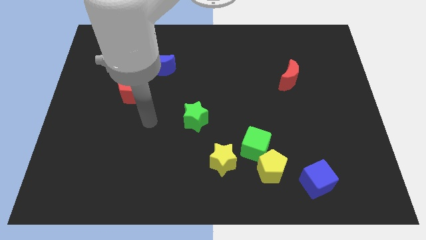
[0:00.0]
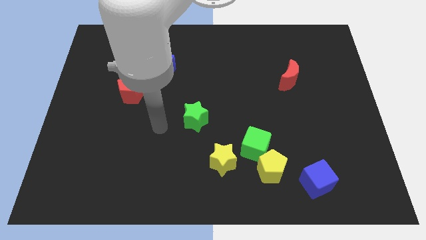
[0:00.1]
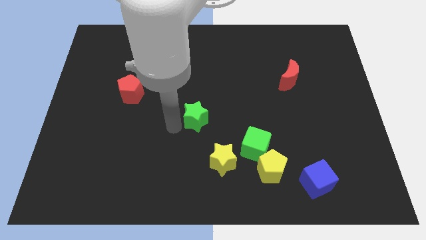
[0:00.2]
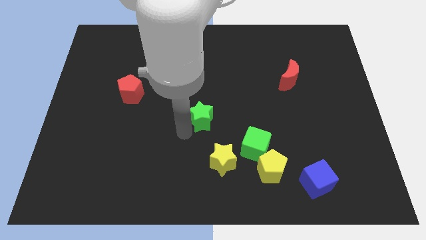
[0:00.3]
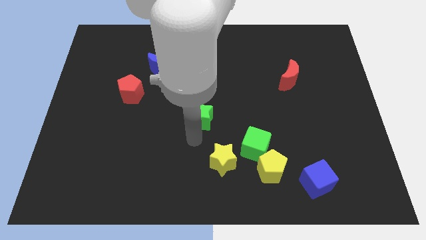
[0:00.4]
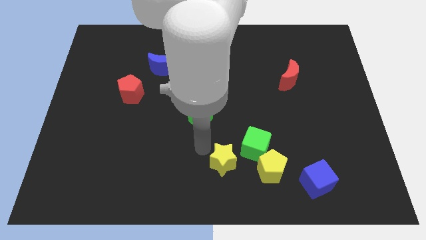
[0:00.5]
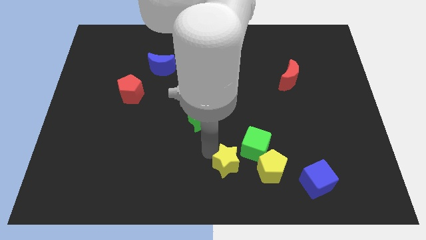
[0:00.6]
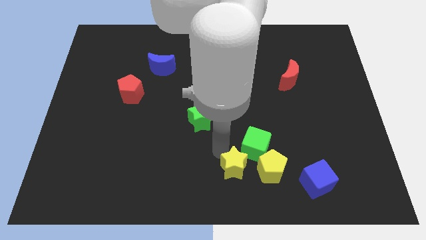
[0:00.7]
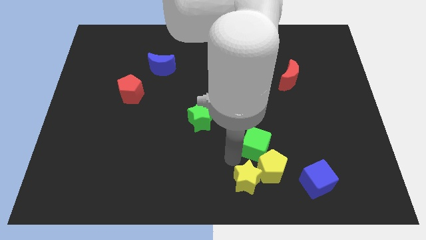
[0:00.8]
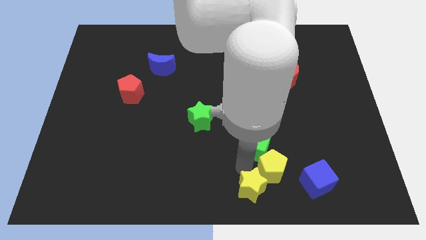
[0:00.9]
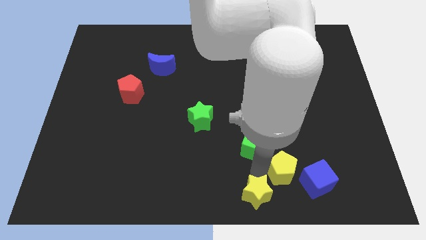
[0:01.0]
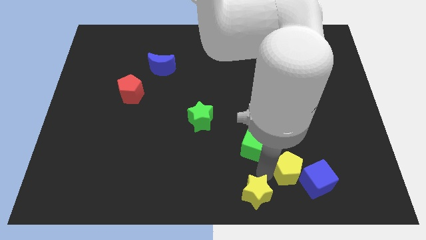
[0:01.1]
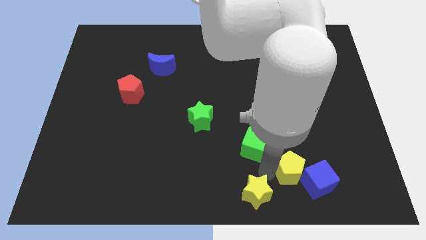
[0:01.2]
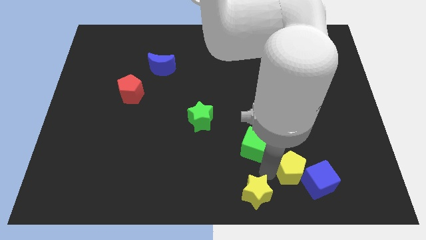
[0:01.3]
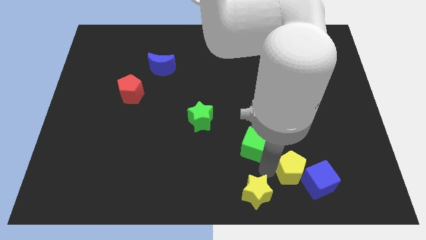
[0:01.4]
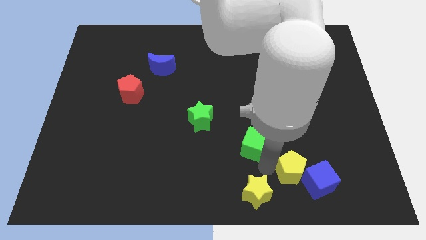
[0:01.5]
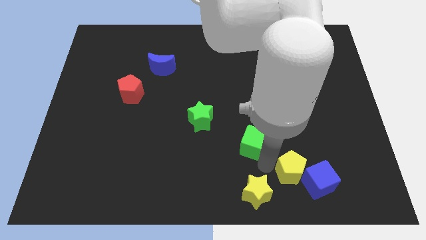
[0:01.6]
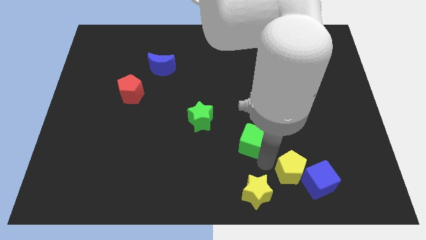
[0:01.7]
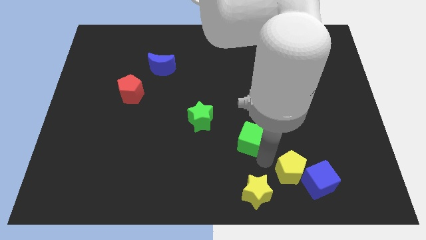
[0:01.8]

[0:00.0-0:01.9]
move the green cube away from the yellow pentagon and yellow star

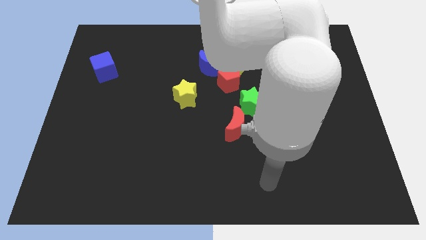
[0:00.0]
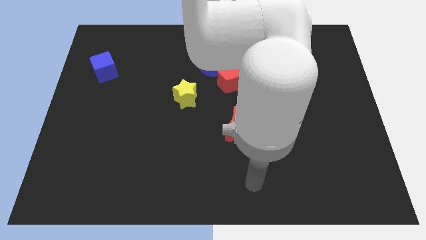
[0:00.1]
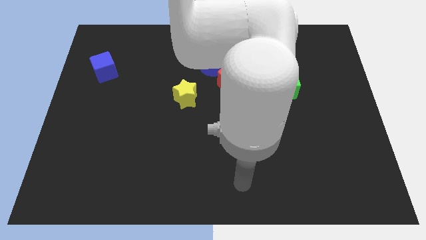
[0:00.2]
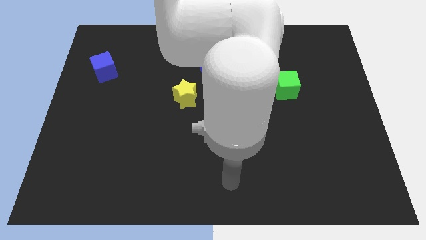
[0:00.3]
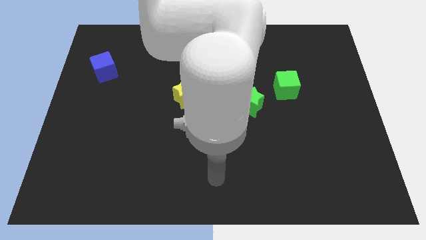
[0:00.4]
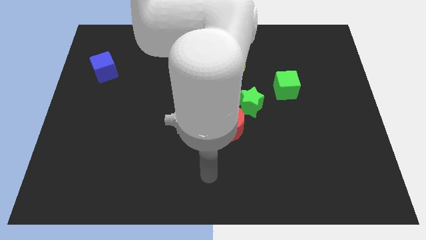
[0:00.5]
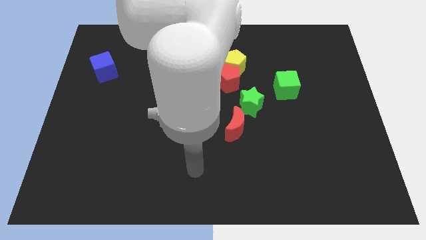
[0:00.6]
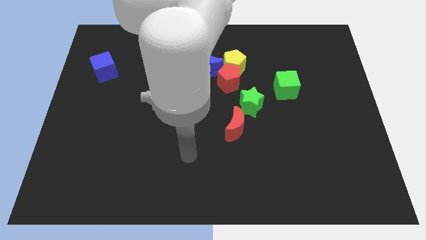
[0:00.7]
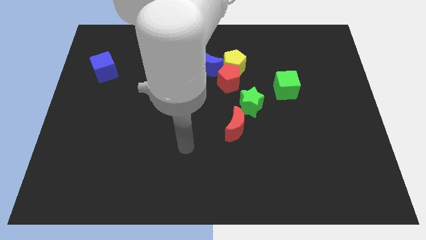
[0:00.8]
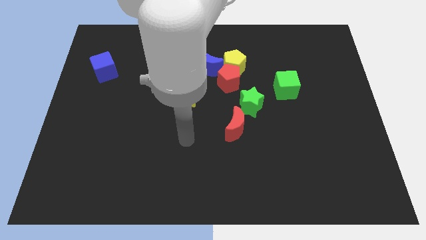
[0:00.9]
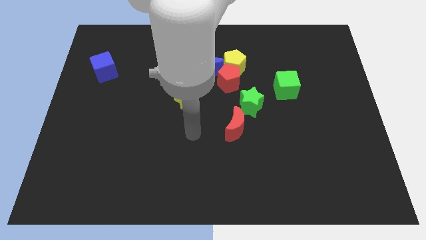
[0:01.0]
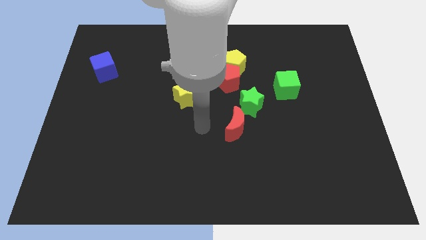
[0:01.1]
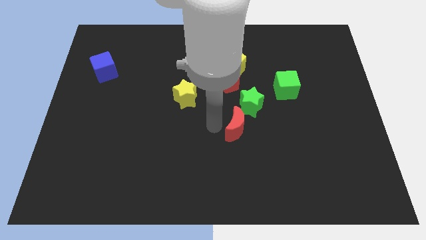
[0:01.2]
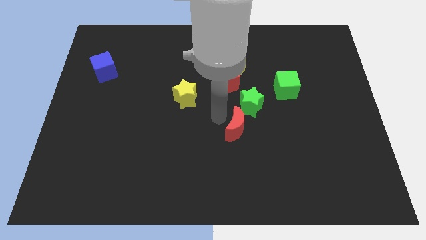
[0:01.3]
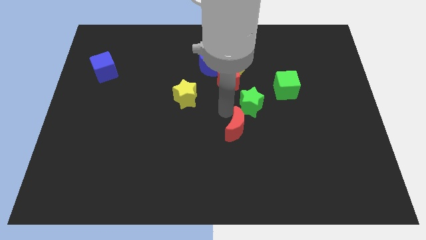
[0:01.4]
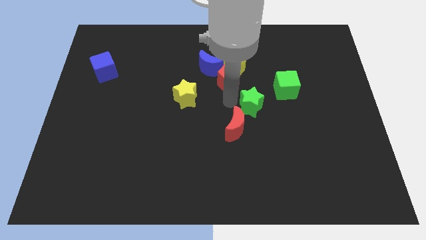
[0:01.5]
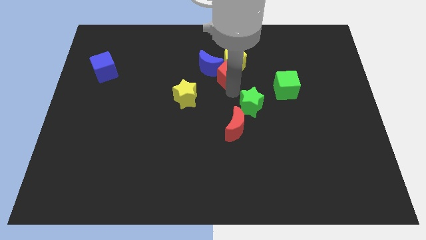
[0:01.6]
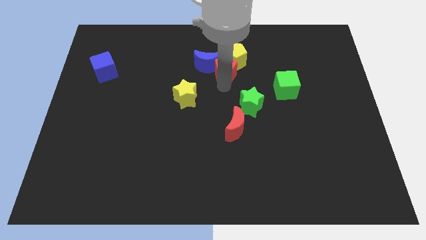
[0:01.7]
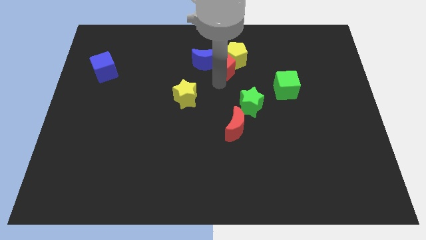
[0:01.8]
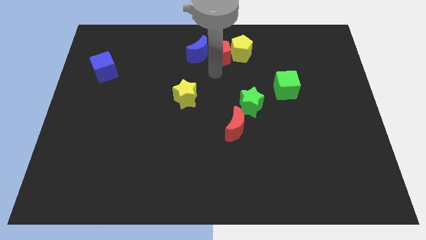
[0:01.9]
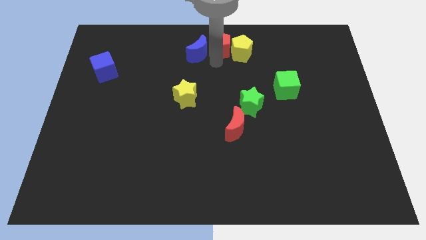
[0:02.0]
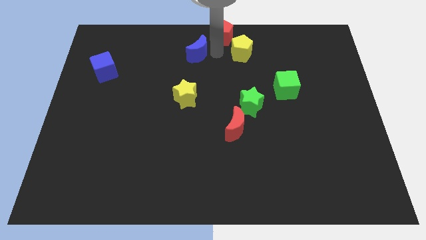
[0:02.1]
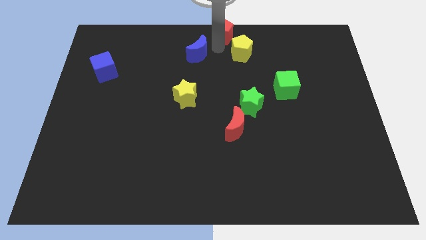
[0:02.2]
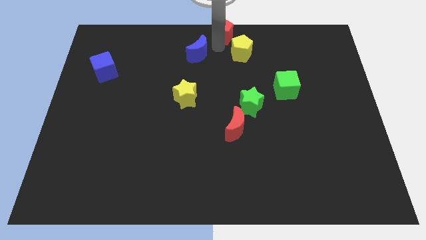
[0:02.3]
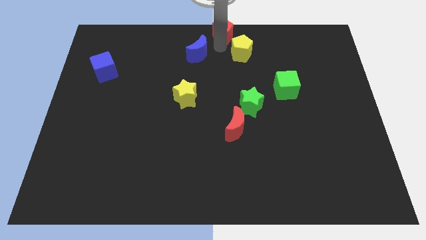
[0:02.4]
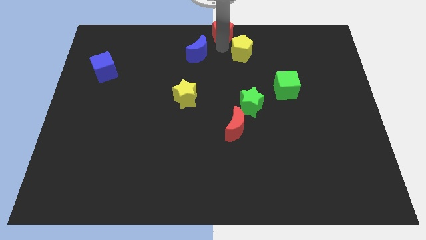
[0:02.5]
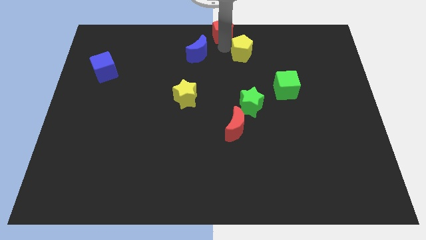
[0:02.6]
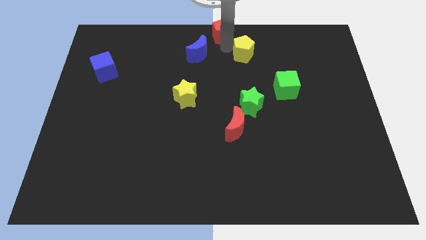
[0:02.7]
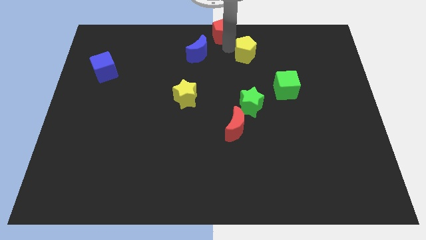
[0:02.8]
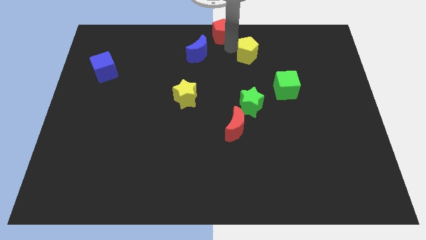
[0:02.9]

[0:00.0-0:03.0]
pull the yellow pentagon apart from the red pentagon and blue moon

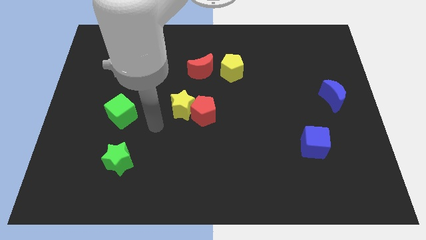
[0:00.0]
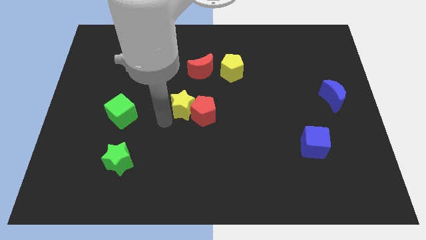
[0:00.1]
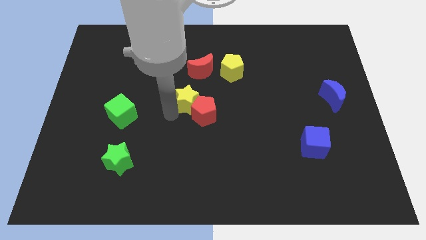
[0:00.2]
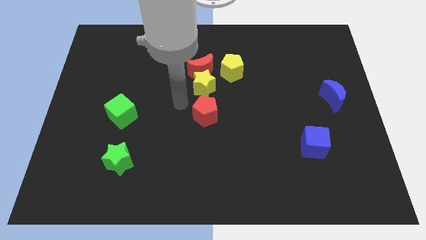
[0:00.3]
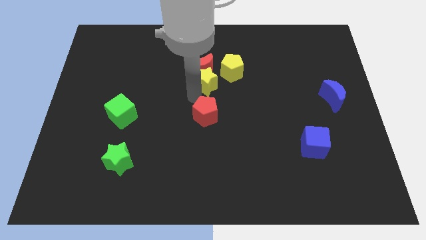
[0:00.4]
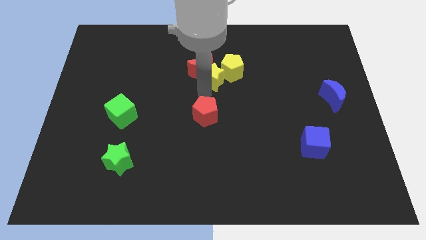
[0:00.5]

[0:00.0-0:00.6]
separate the red pentagon from the yellow star

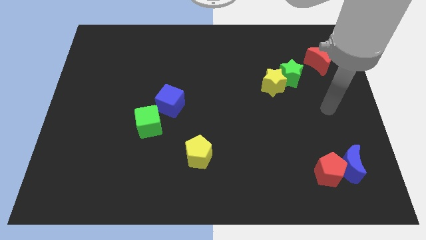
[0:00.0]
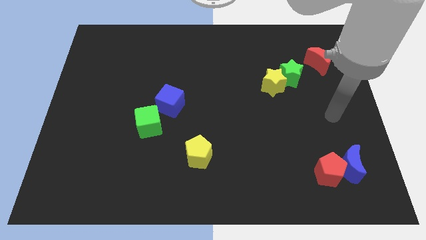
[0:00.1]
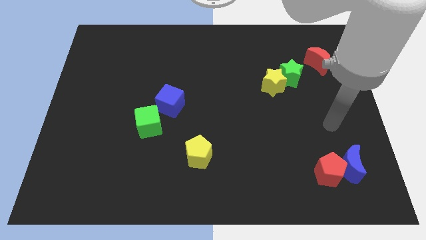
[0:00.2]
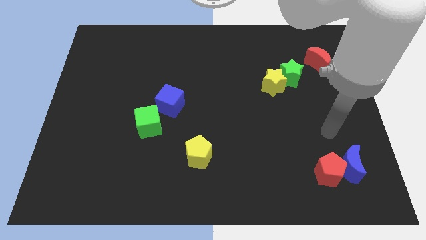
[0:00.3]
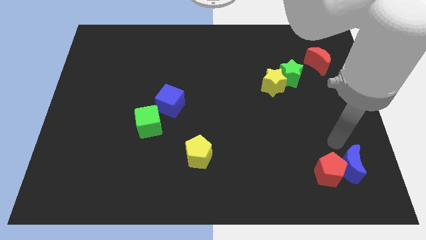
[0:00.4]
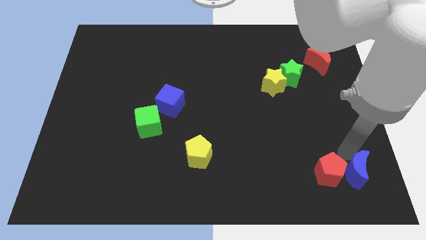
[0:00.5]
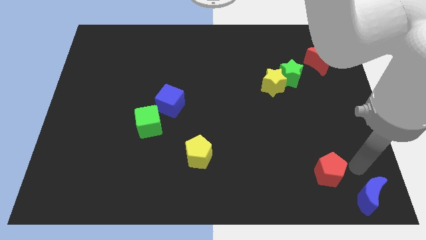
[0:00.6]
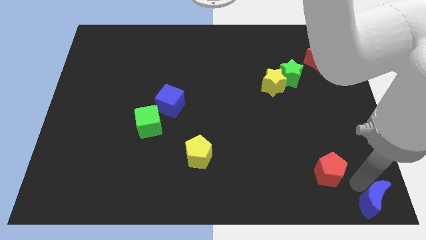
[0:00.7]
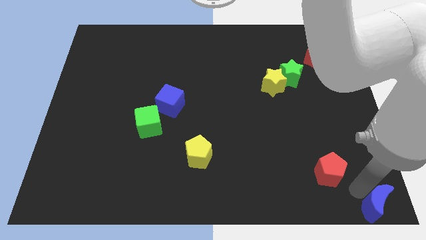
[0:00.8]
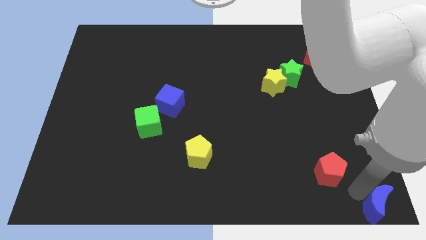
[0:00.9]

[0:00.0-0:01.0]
separate the red pentagon from the blue moon

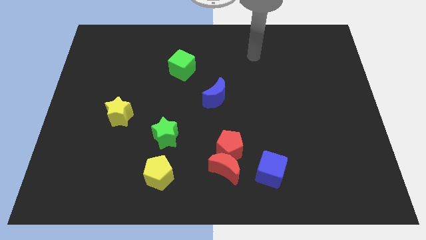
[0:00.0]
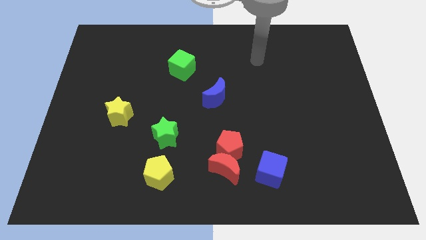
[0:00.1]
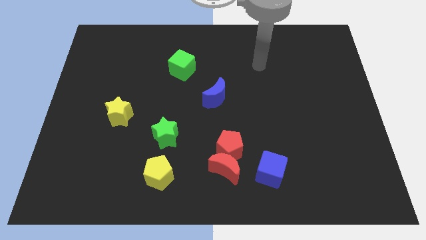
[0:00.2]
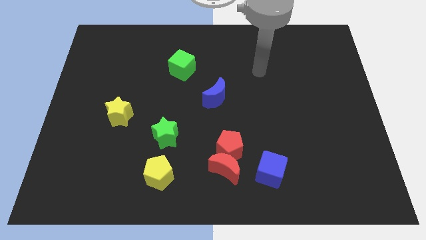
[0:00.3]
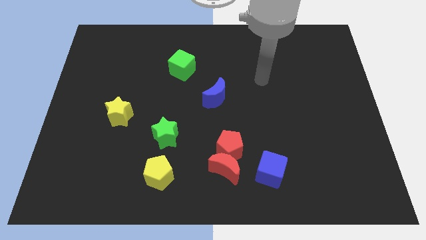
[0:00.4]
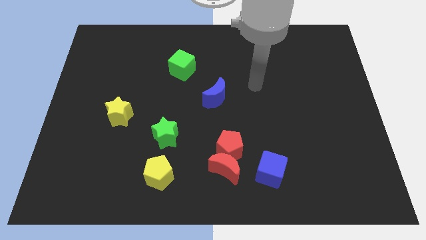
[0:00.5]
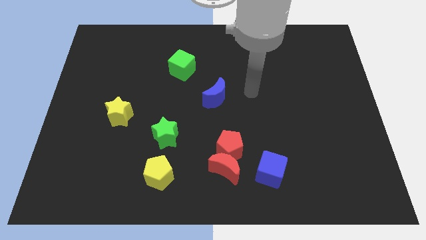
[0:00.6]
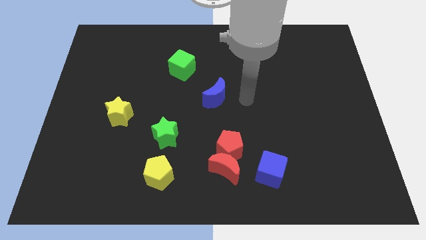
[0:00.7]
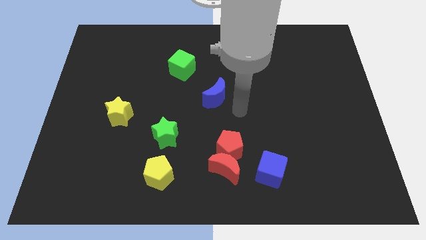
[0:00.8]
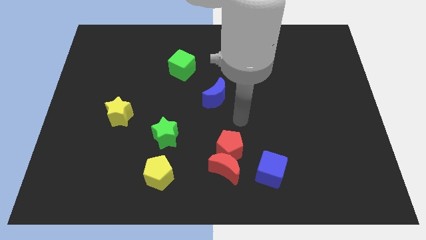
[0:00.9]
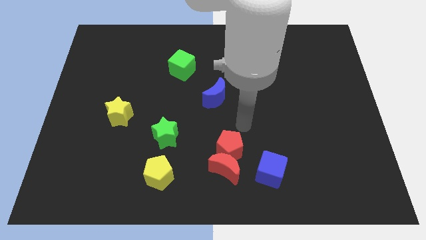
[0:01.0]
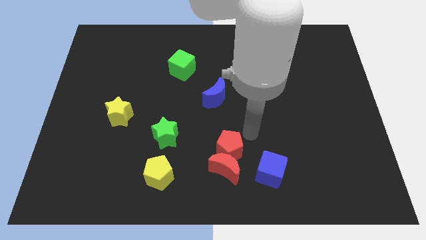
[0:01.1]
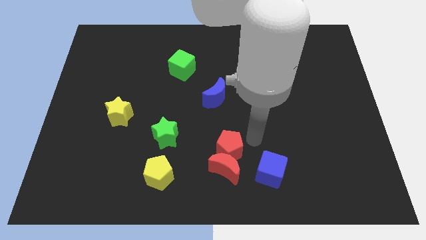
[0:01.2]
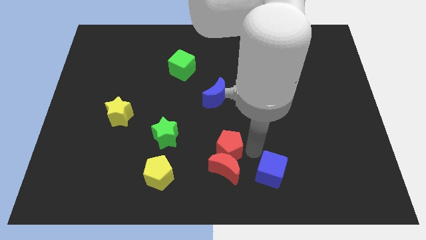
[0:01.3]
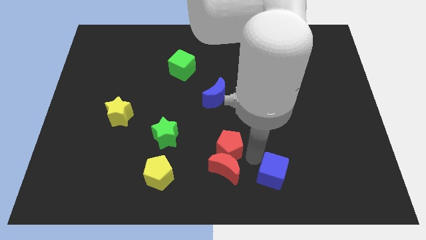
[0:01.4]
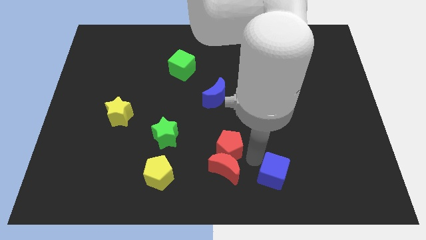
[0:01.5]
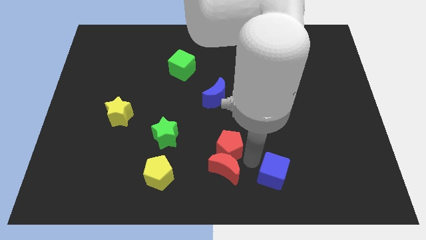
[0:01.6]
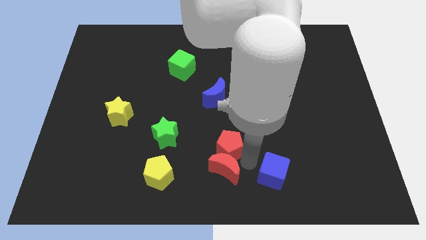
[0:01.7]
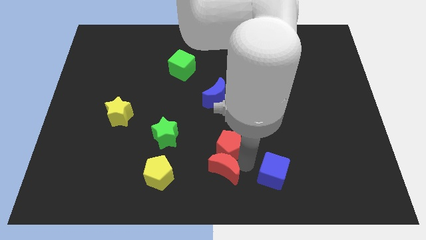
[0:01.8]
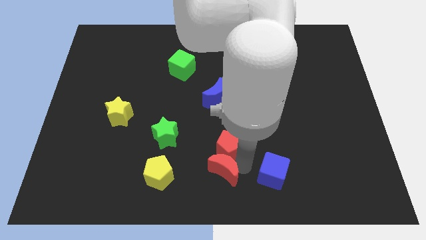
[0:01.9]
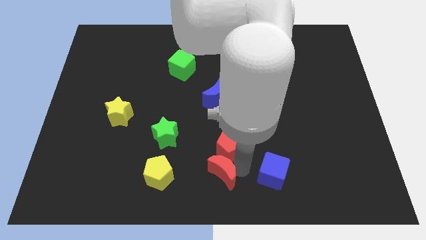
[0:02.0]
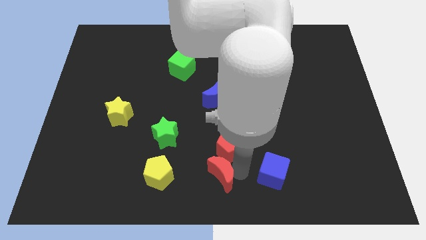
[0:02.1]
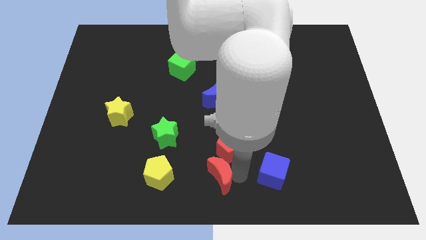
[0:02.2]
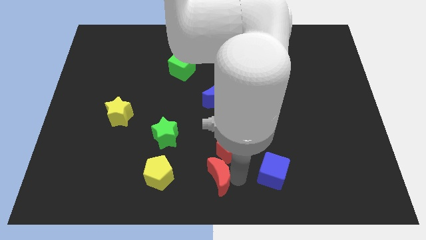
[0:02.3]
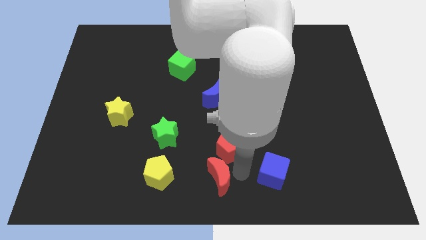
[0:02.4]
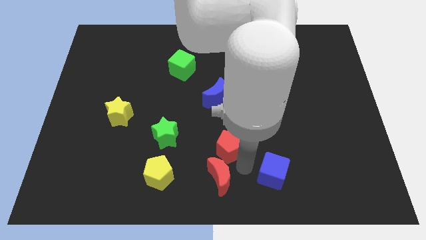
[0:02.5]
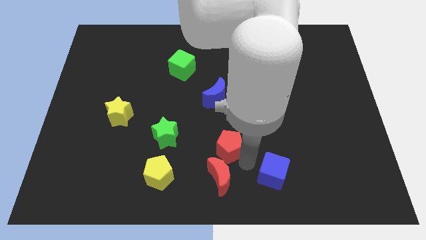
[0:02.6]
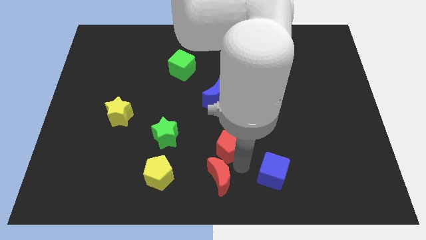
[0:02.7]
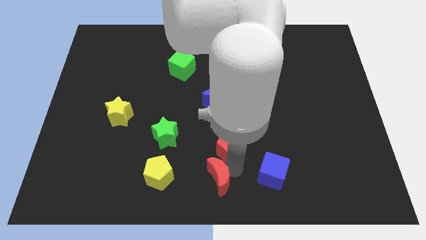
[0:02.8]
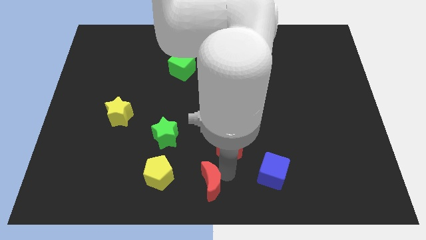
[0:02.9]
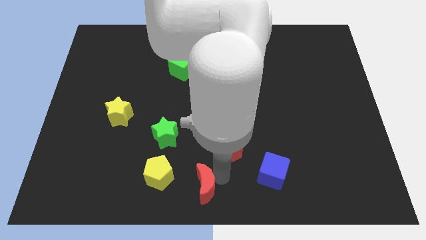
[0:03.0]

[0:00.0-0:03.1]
separate the red moon from the red pentagon and blue cube
